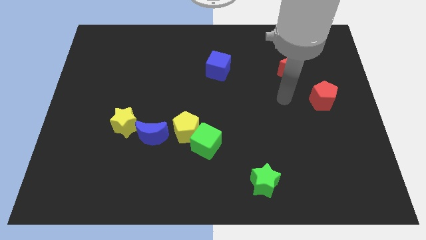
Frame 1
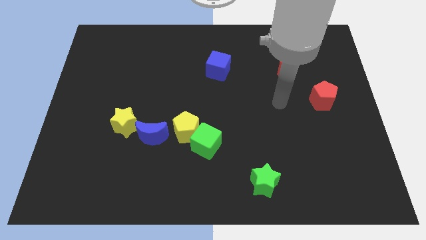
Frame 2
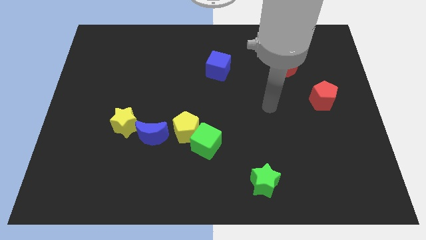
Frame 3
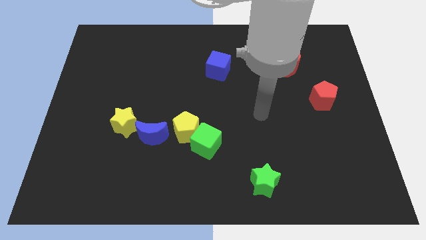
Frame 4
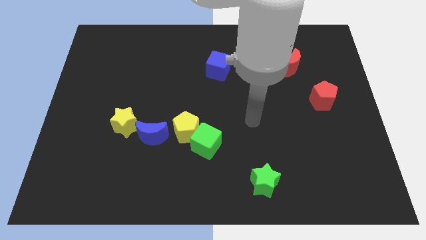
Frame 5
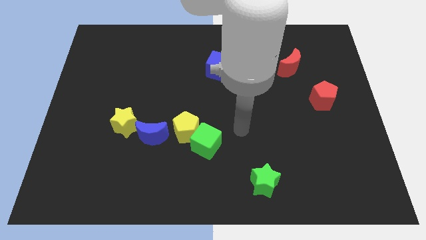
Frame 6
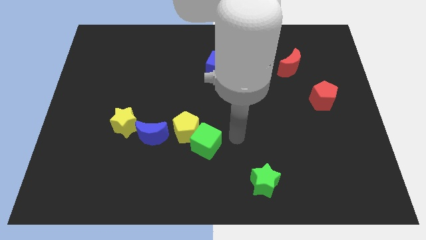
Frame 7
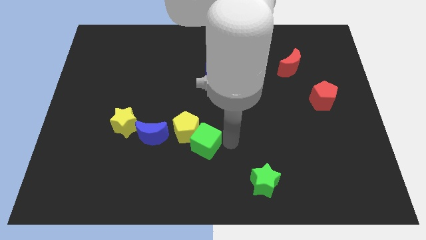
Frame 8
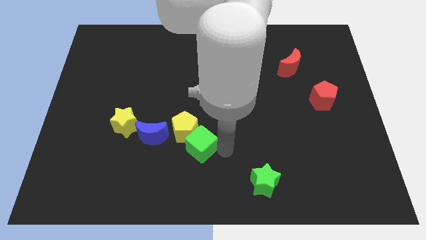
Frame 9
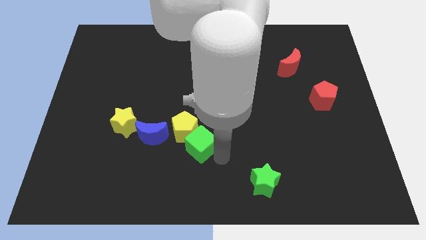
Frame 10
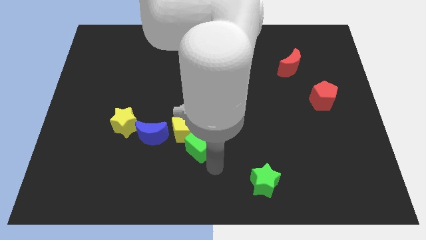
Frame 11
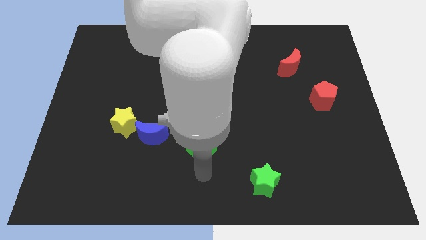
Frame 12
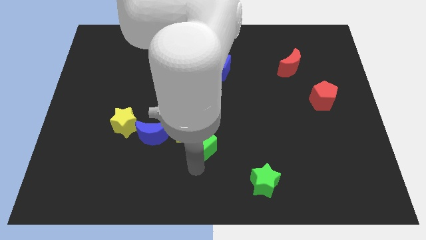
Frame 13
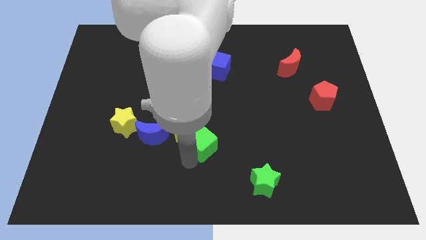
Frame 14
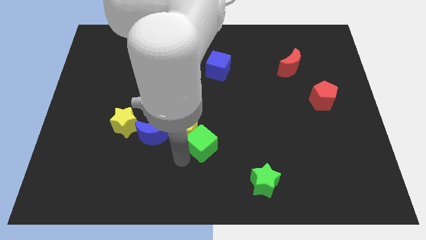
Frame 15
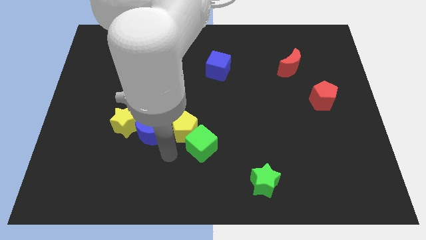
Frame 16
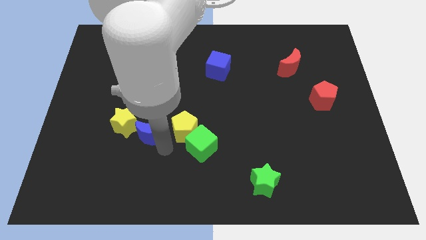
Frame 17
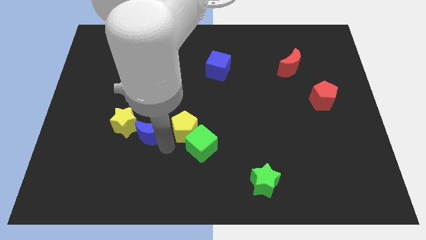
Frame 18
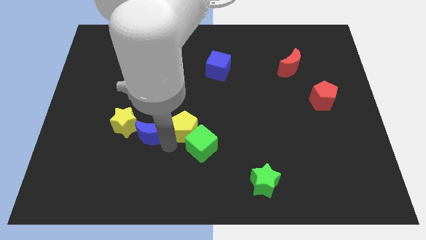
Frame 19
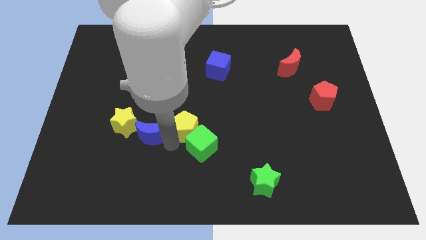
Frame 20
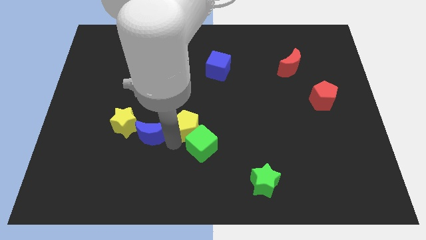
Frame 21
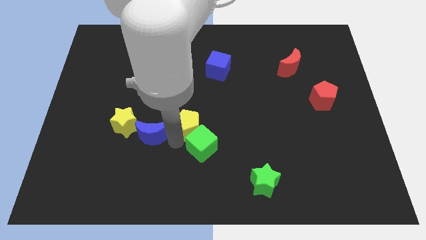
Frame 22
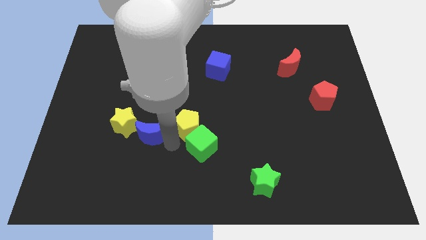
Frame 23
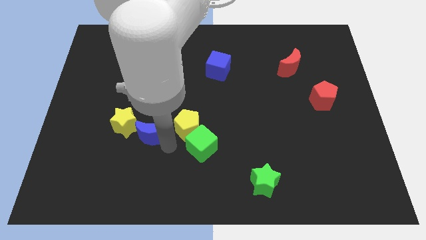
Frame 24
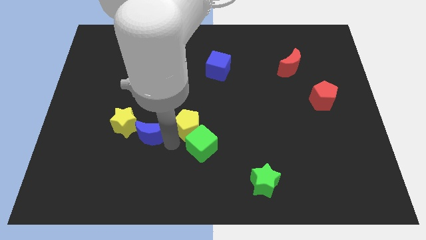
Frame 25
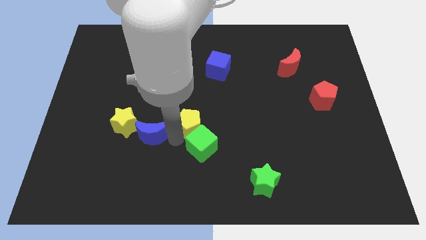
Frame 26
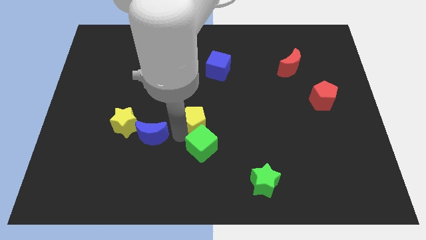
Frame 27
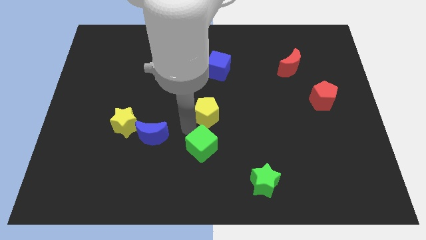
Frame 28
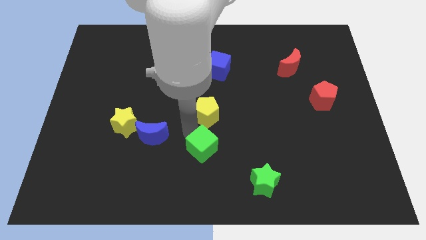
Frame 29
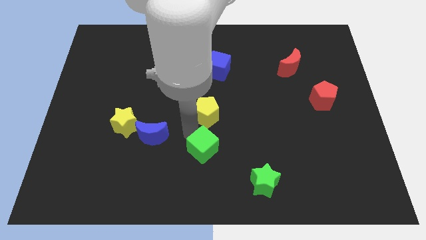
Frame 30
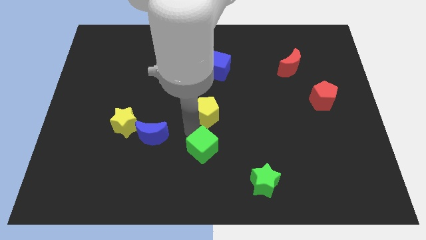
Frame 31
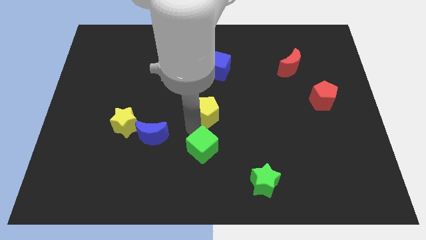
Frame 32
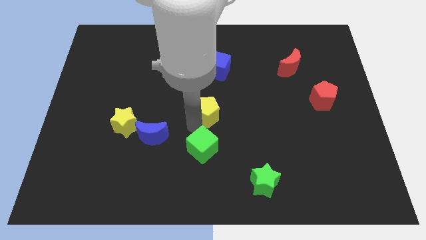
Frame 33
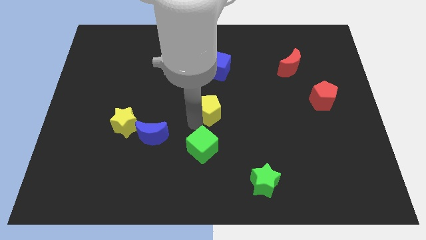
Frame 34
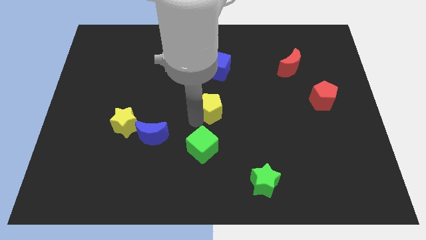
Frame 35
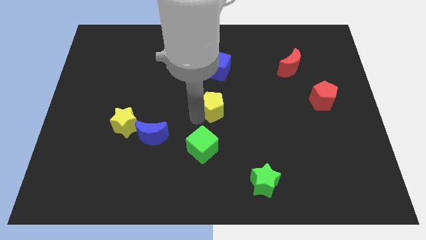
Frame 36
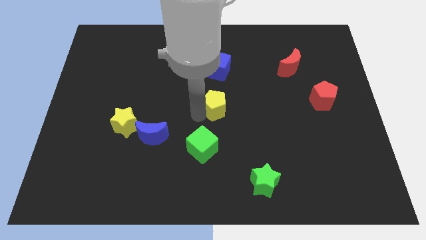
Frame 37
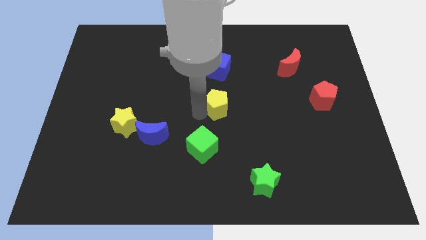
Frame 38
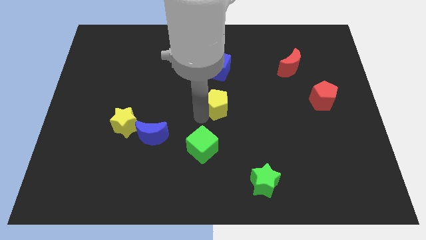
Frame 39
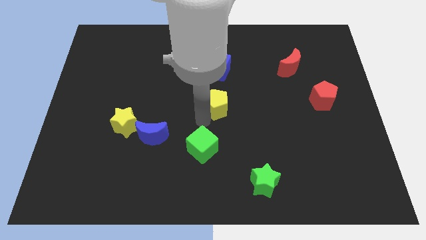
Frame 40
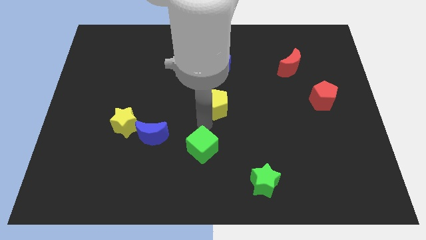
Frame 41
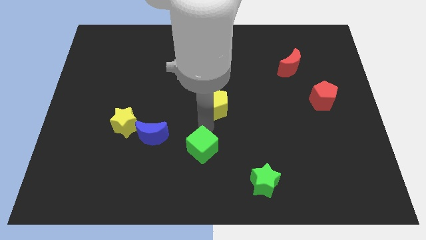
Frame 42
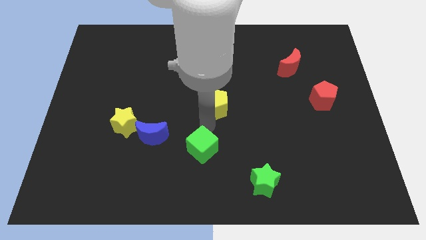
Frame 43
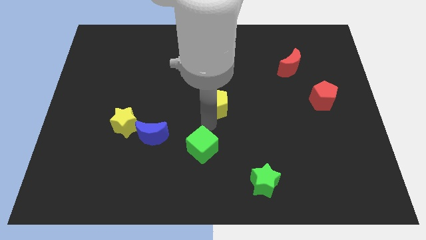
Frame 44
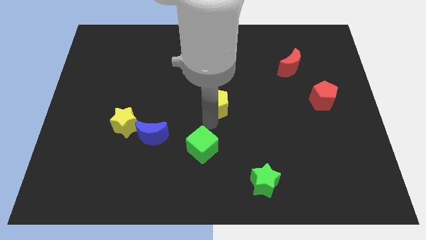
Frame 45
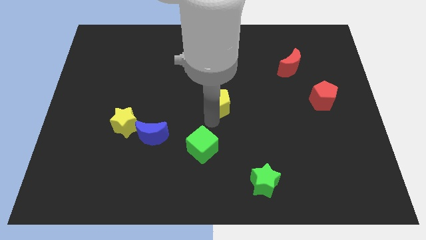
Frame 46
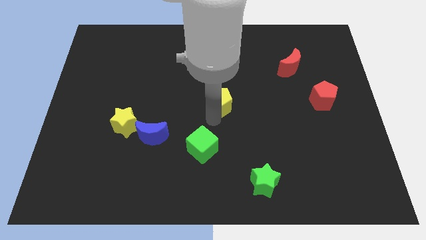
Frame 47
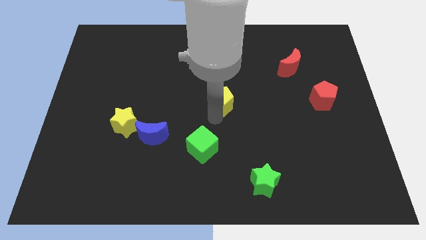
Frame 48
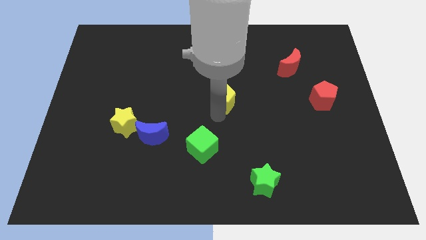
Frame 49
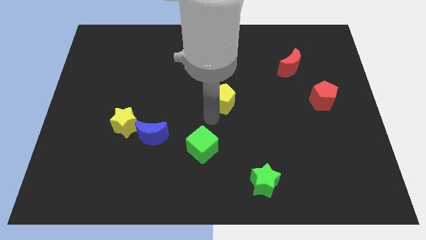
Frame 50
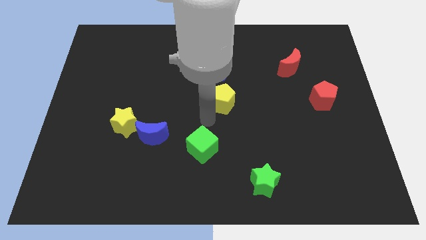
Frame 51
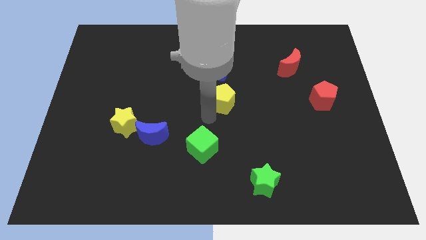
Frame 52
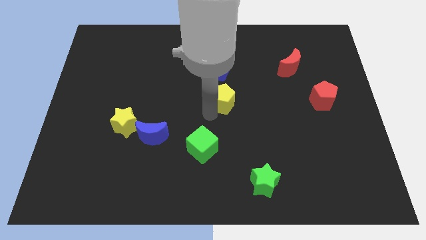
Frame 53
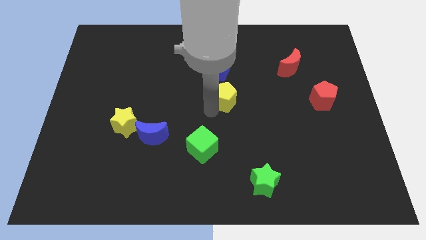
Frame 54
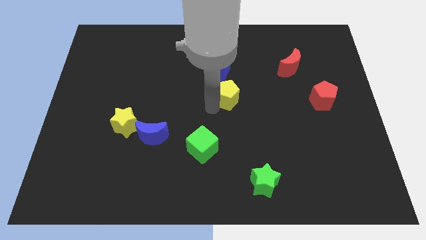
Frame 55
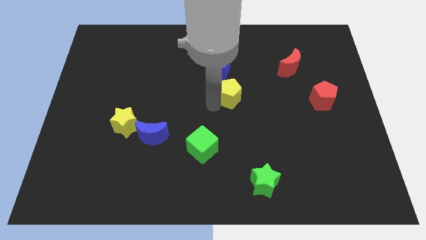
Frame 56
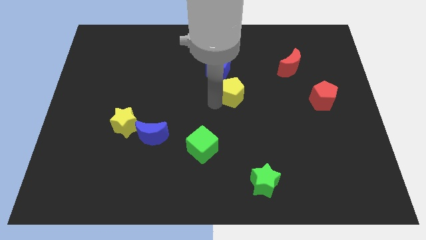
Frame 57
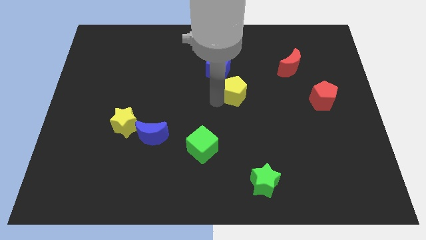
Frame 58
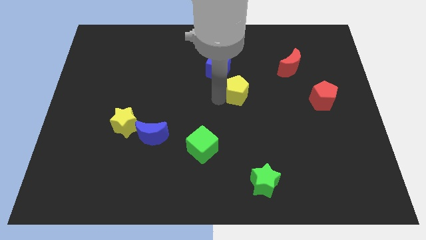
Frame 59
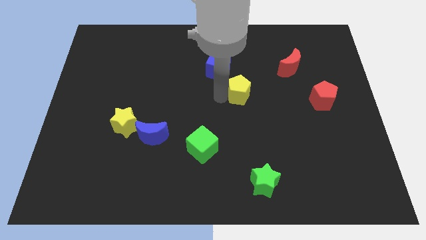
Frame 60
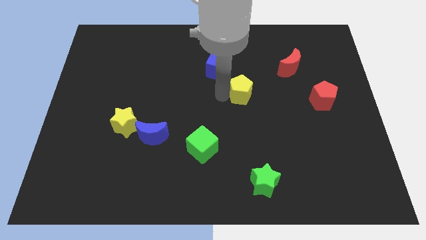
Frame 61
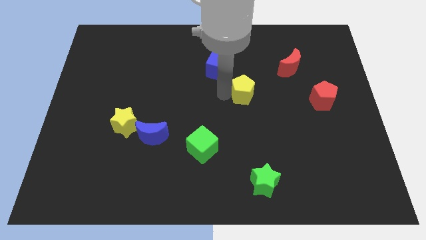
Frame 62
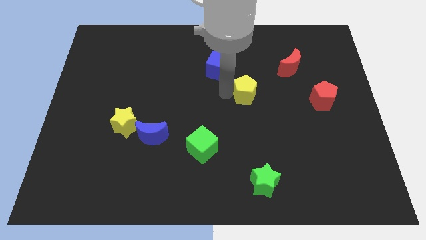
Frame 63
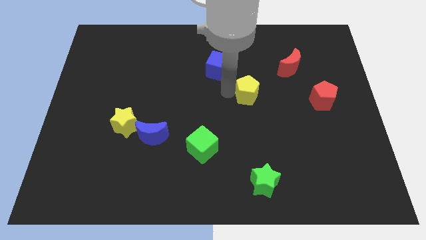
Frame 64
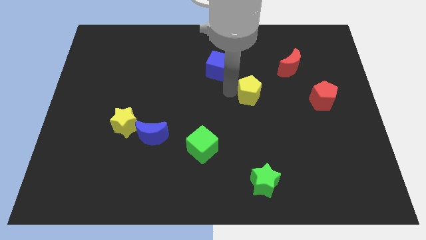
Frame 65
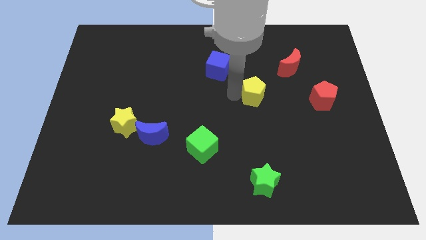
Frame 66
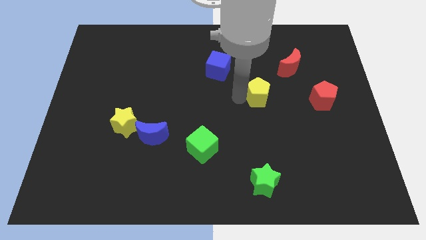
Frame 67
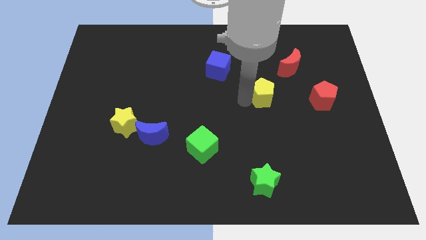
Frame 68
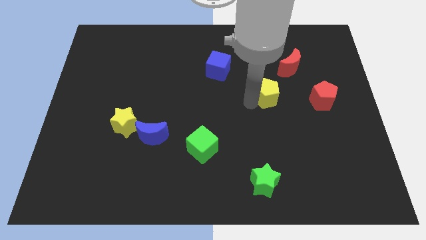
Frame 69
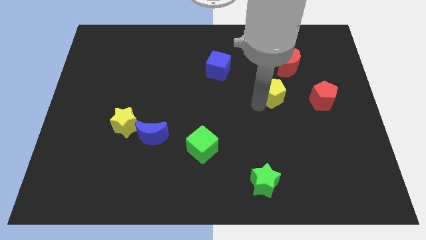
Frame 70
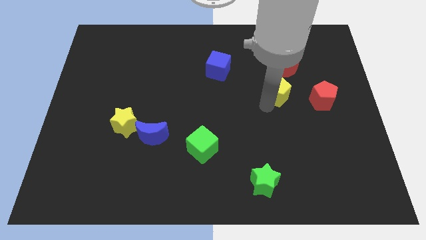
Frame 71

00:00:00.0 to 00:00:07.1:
move the yellow pentagon up and to the right

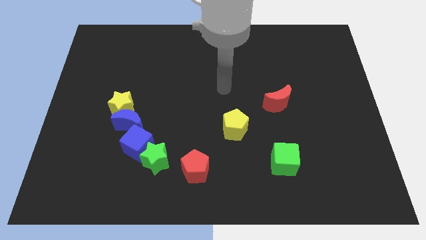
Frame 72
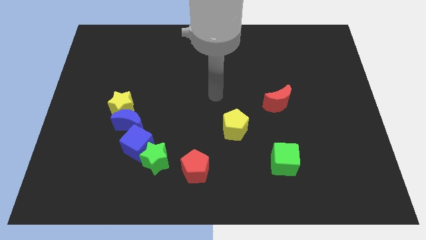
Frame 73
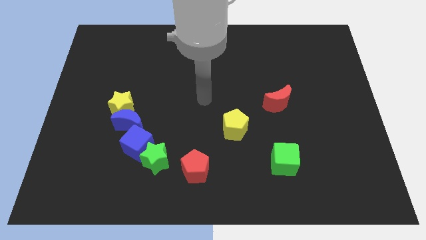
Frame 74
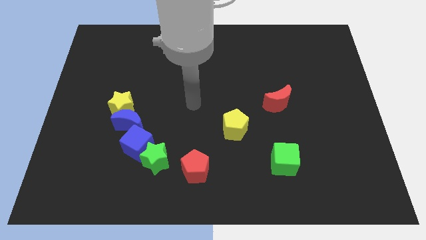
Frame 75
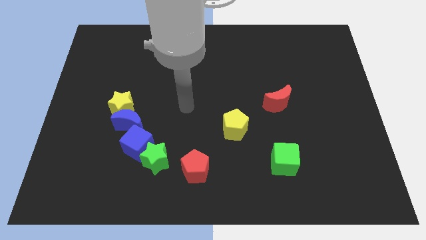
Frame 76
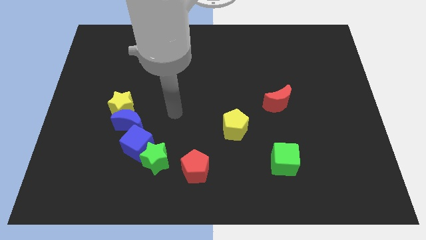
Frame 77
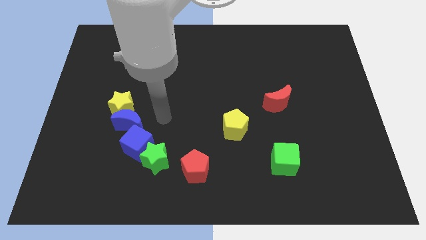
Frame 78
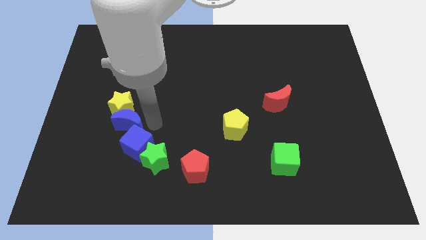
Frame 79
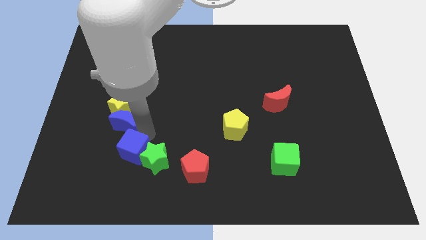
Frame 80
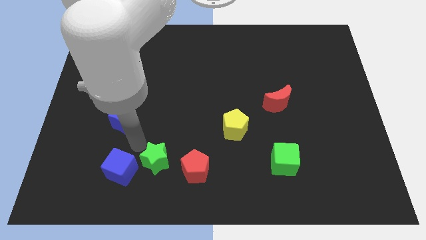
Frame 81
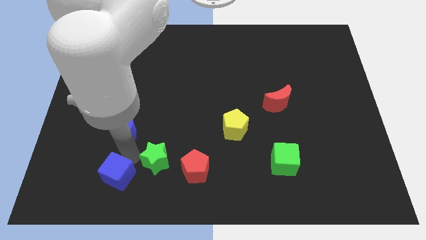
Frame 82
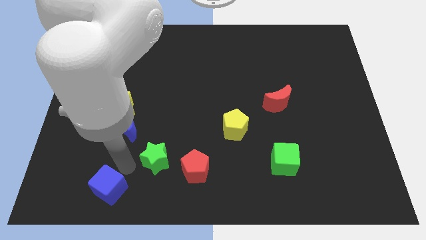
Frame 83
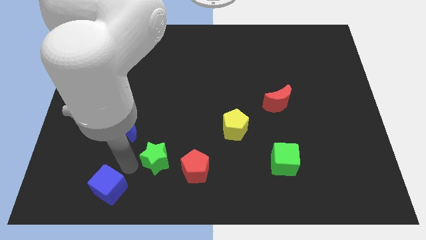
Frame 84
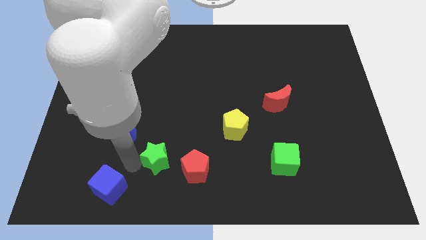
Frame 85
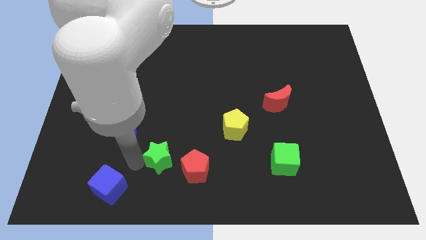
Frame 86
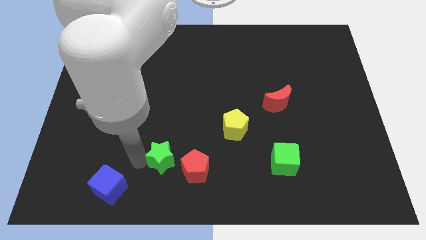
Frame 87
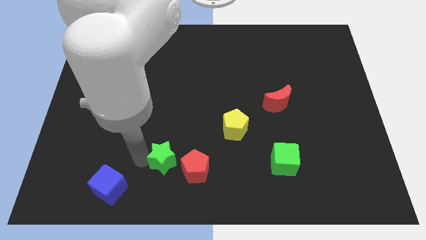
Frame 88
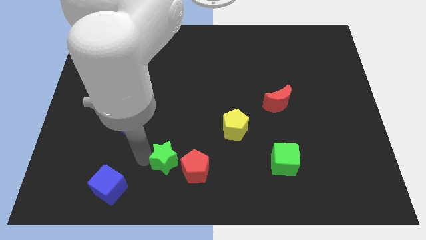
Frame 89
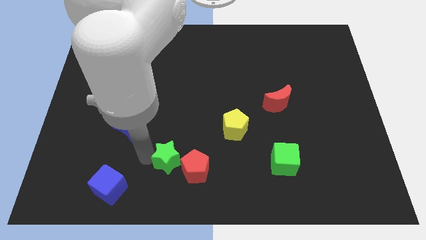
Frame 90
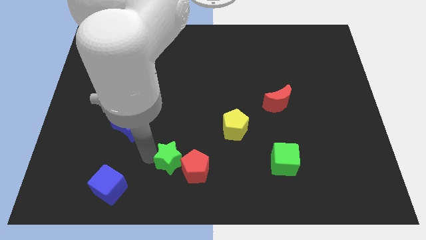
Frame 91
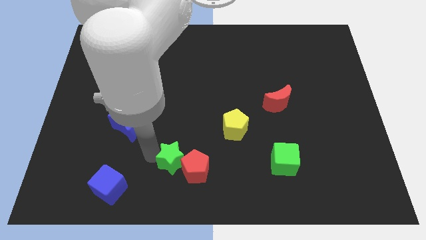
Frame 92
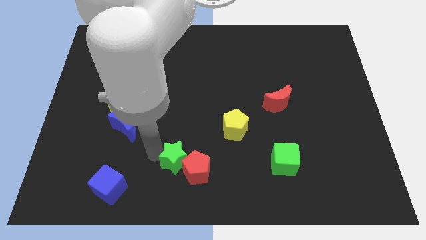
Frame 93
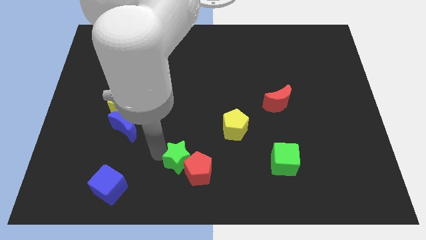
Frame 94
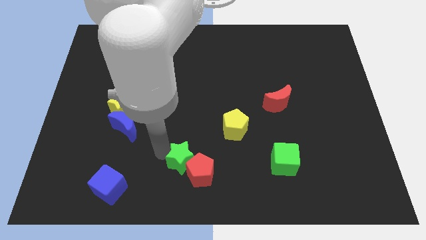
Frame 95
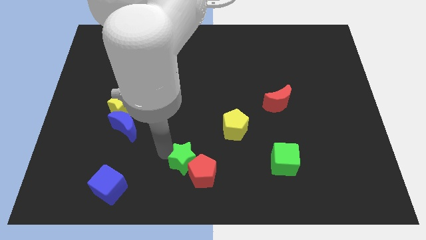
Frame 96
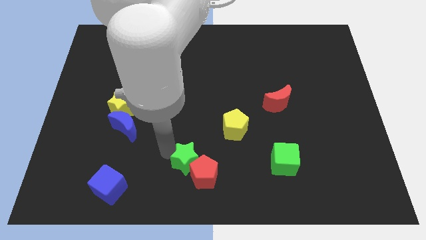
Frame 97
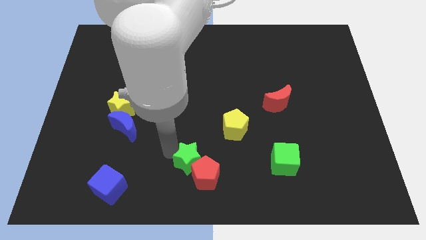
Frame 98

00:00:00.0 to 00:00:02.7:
move the green star to the right a bit
